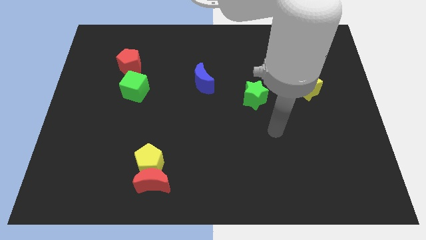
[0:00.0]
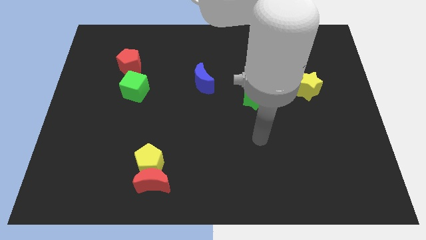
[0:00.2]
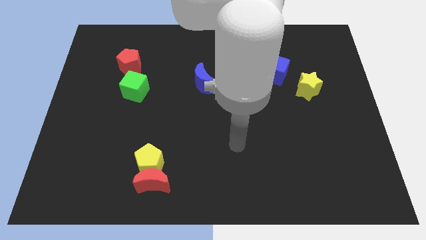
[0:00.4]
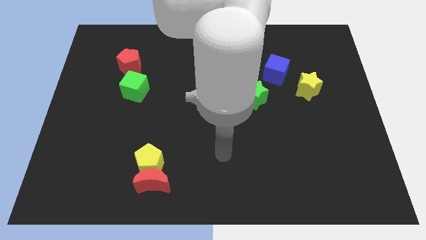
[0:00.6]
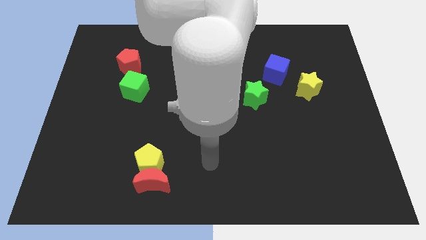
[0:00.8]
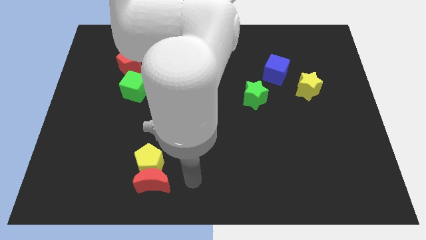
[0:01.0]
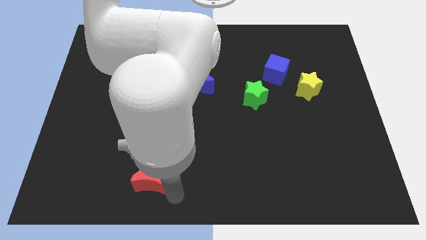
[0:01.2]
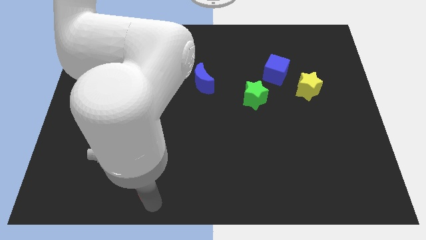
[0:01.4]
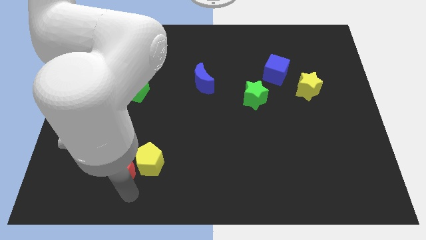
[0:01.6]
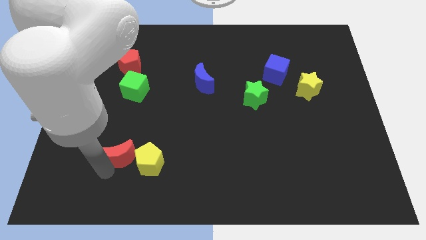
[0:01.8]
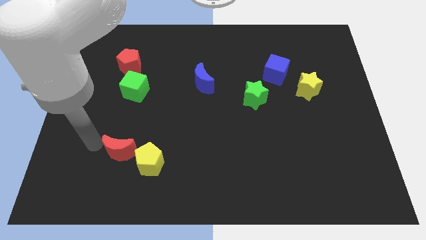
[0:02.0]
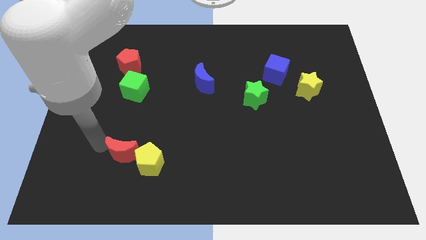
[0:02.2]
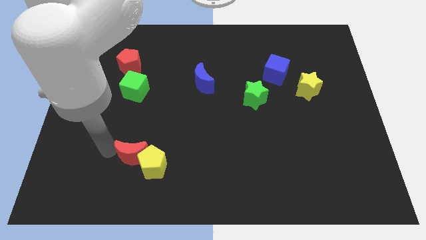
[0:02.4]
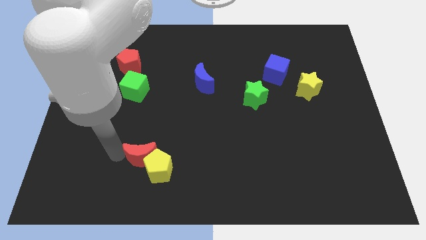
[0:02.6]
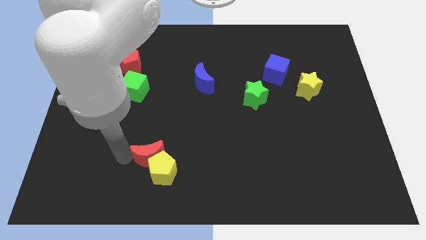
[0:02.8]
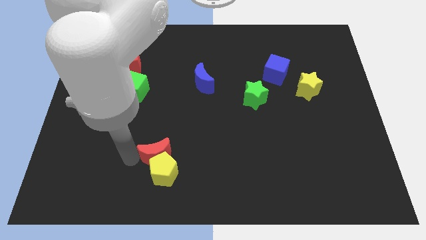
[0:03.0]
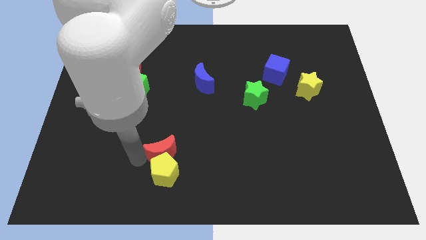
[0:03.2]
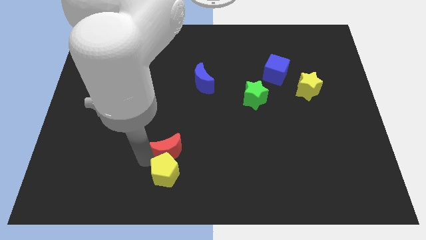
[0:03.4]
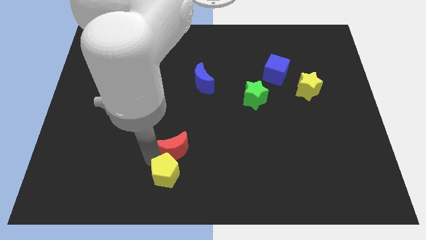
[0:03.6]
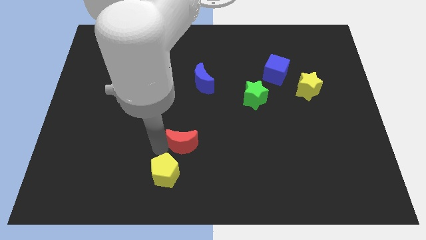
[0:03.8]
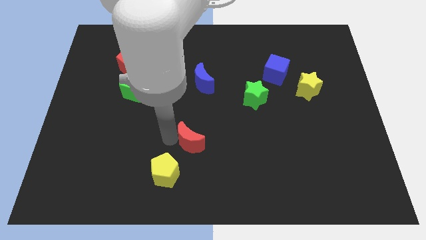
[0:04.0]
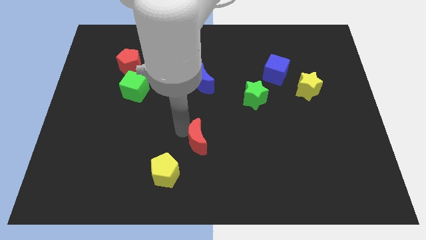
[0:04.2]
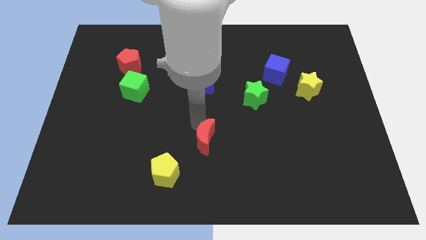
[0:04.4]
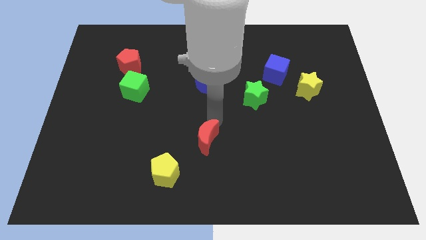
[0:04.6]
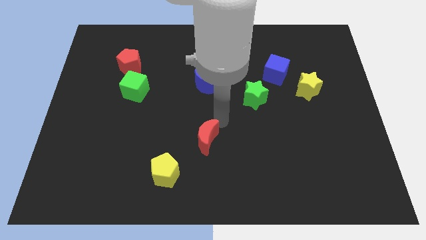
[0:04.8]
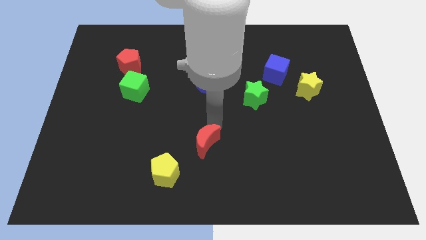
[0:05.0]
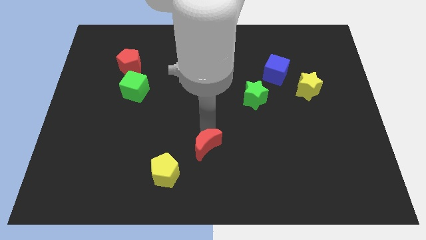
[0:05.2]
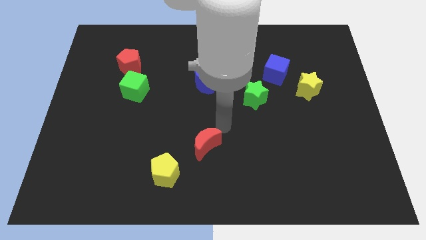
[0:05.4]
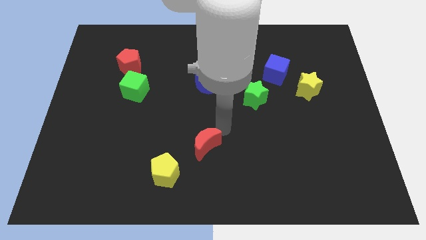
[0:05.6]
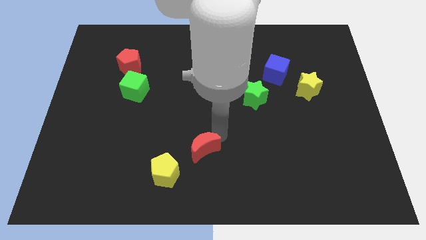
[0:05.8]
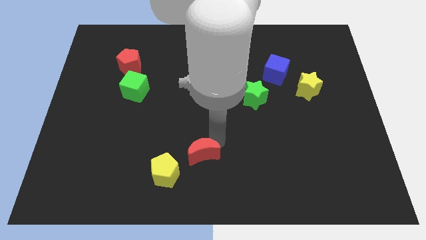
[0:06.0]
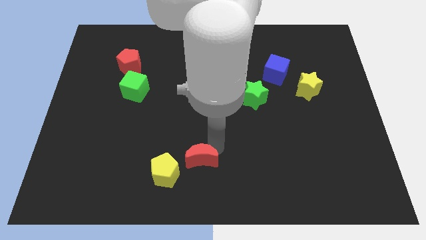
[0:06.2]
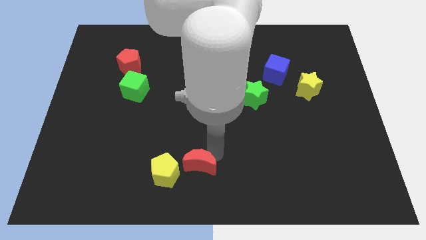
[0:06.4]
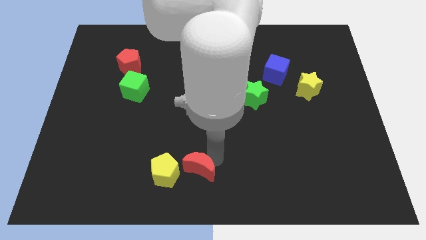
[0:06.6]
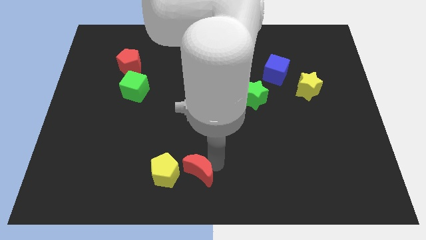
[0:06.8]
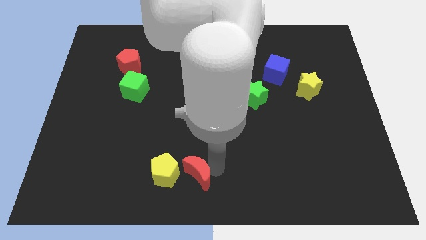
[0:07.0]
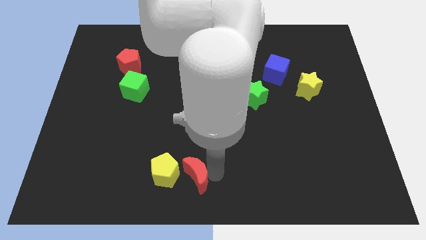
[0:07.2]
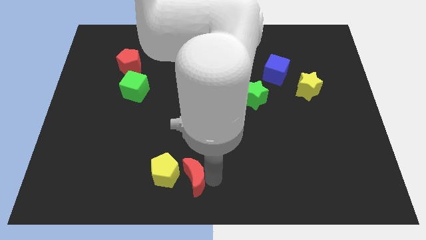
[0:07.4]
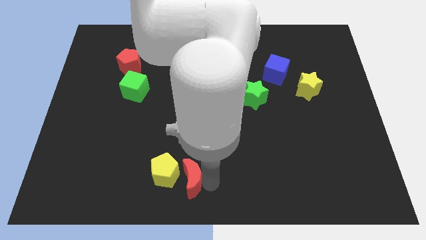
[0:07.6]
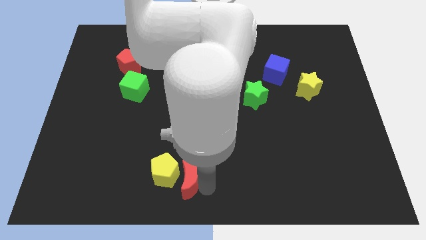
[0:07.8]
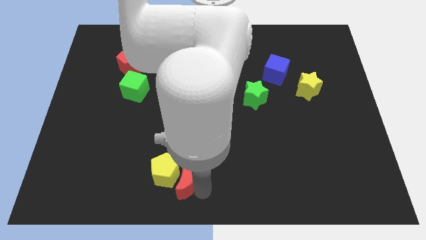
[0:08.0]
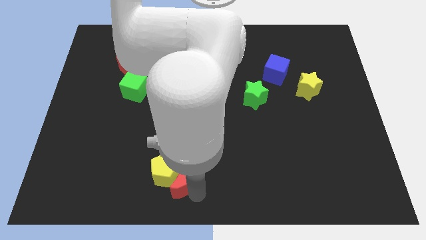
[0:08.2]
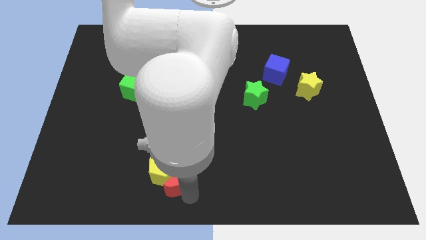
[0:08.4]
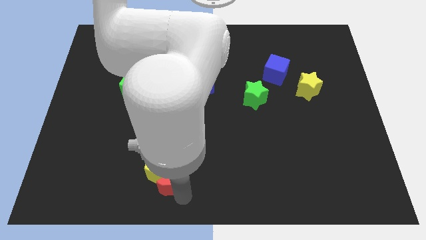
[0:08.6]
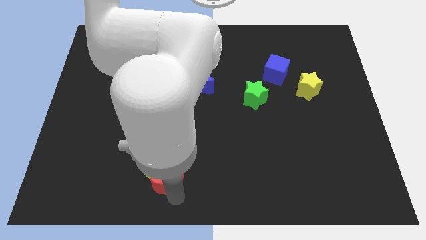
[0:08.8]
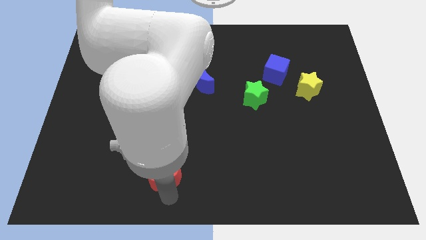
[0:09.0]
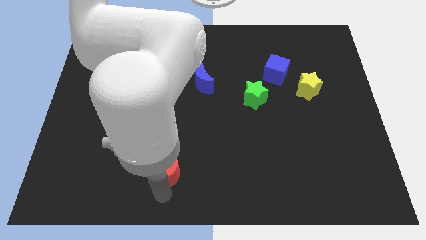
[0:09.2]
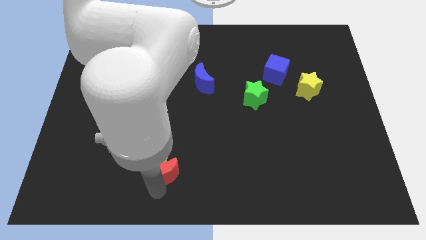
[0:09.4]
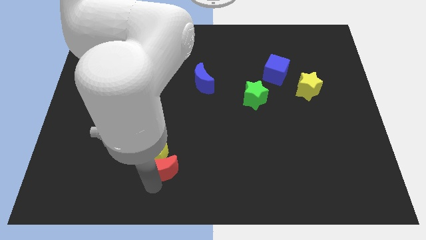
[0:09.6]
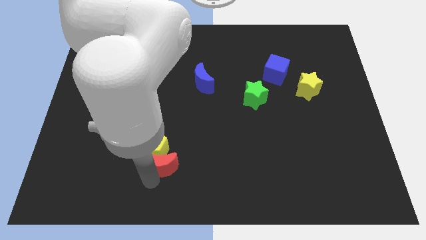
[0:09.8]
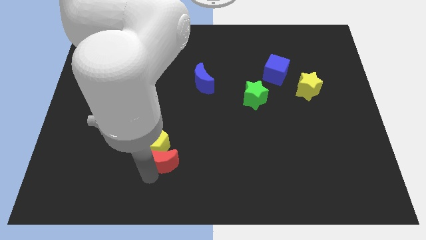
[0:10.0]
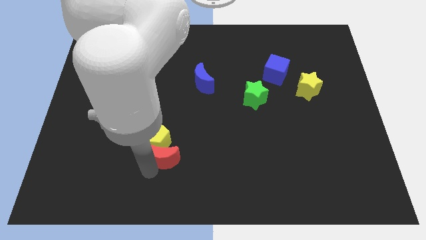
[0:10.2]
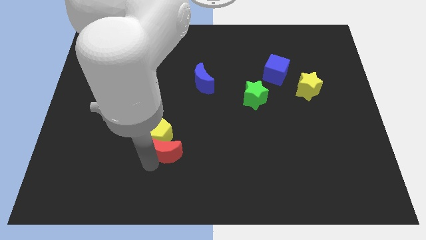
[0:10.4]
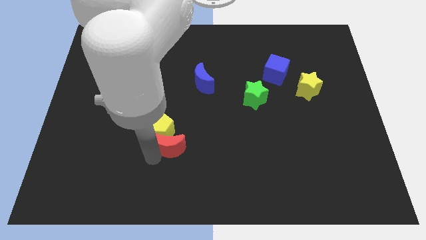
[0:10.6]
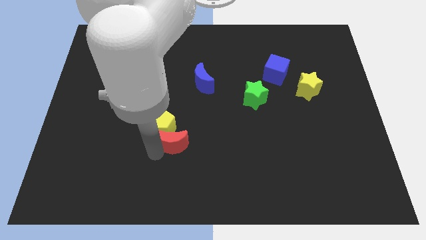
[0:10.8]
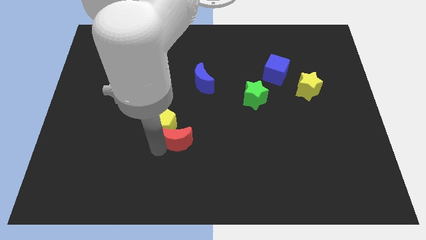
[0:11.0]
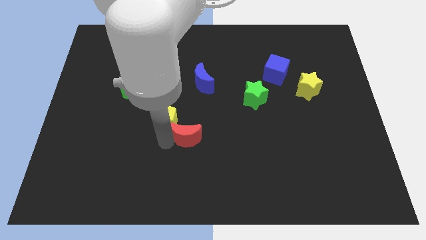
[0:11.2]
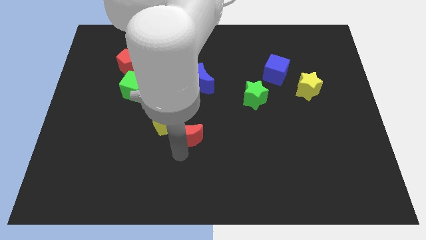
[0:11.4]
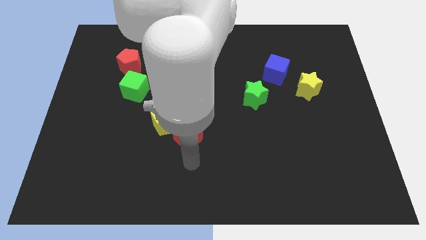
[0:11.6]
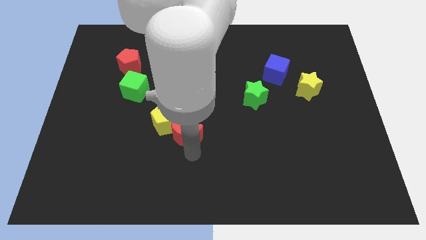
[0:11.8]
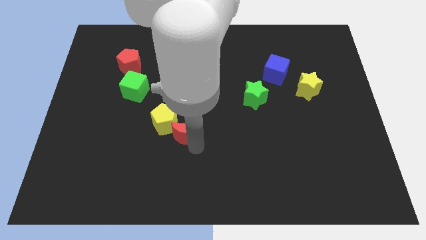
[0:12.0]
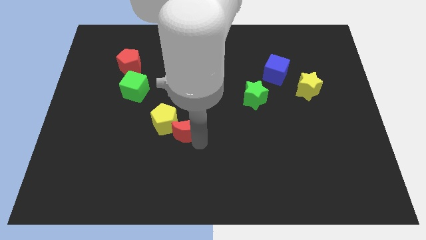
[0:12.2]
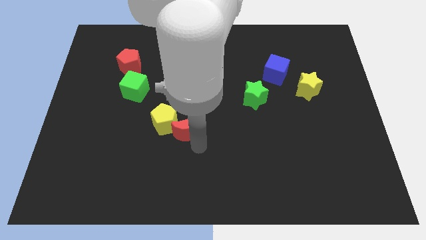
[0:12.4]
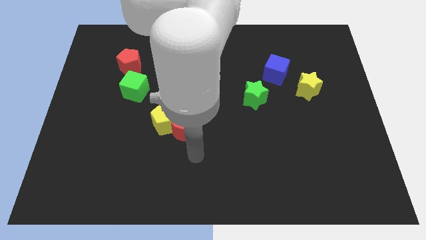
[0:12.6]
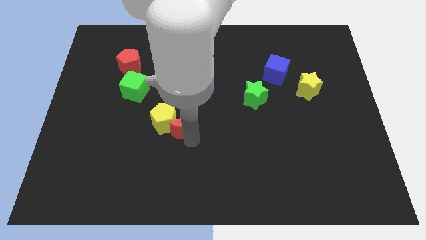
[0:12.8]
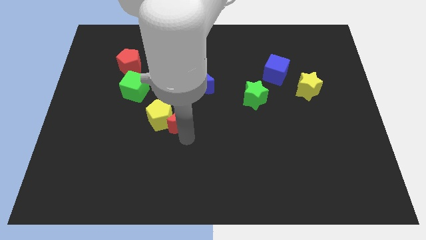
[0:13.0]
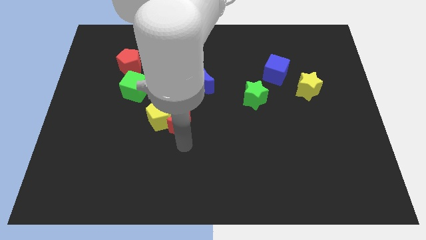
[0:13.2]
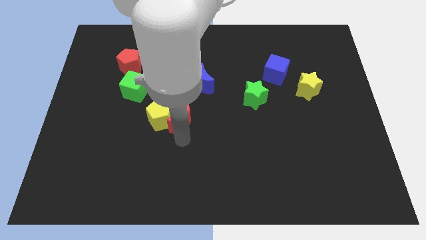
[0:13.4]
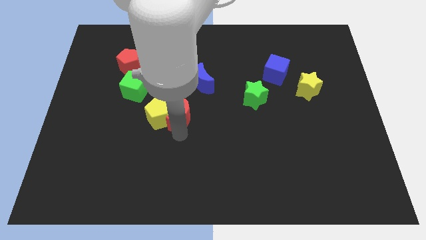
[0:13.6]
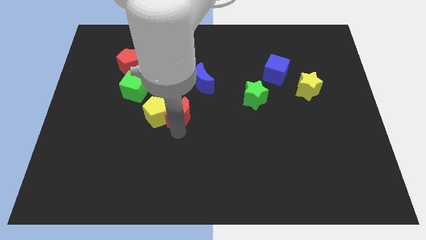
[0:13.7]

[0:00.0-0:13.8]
put the red moon diagonally down and to the left of the blue moon
